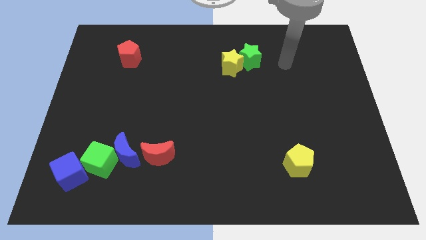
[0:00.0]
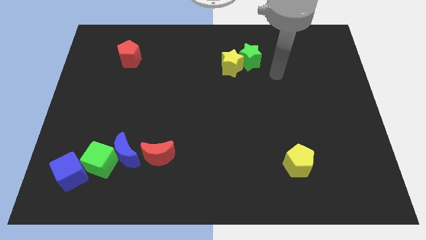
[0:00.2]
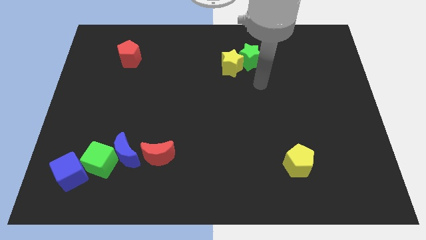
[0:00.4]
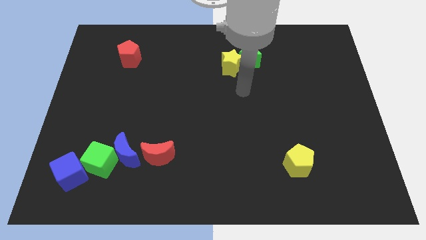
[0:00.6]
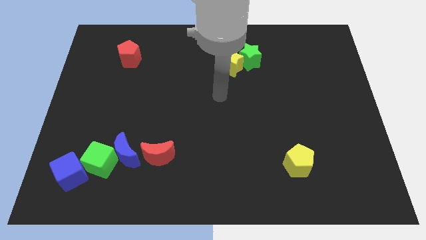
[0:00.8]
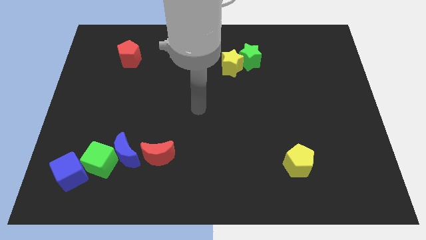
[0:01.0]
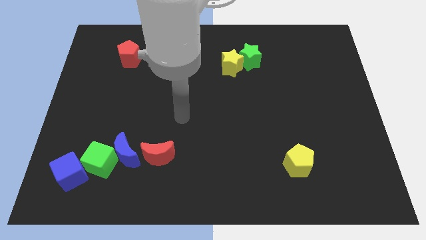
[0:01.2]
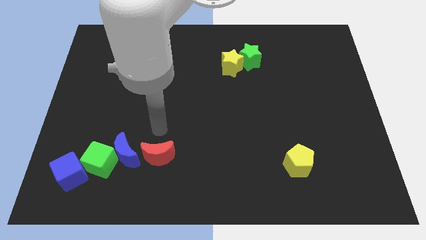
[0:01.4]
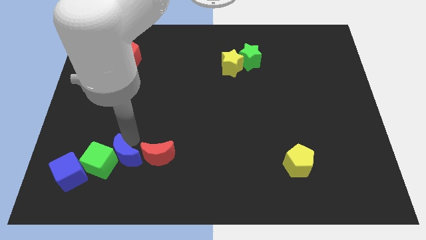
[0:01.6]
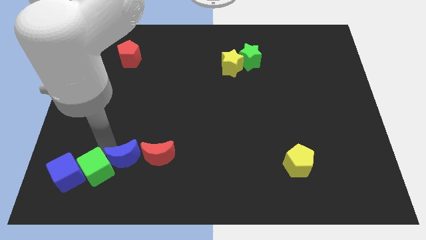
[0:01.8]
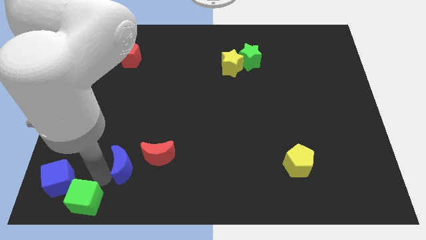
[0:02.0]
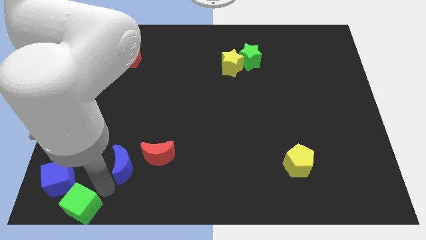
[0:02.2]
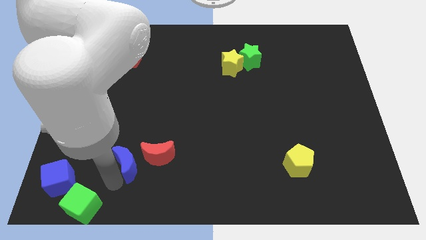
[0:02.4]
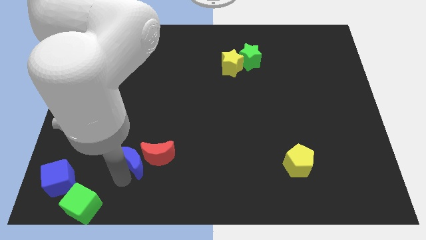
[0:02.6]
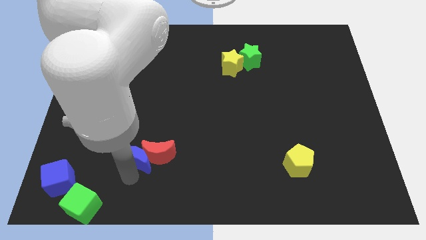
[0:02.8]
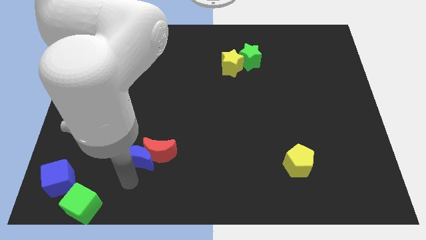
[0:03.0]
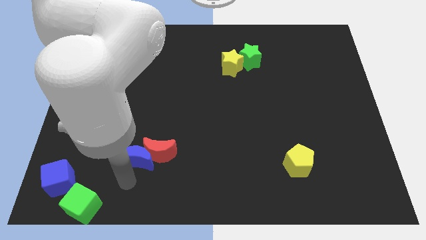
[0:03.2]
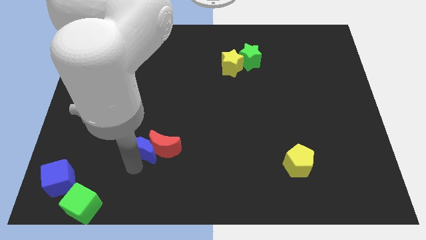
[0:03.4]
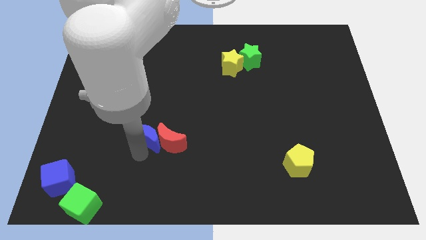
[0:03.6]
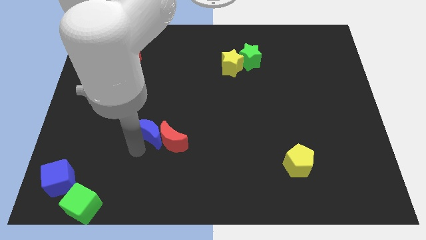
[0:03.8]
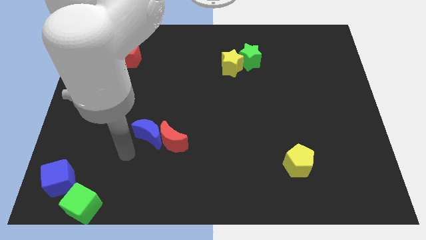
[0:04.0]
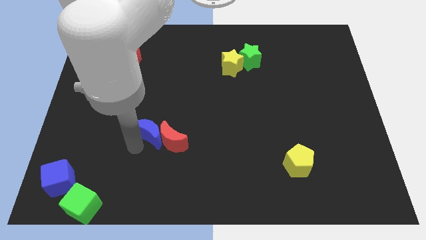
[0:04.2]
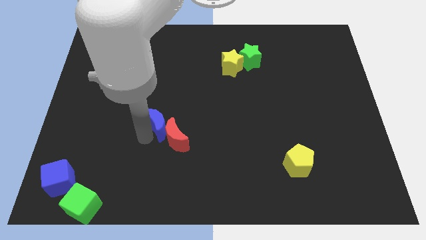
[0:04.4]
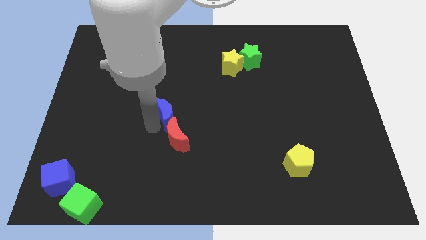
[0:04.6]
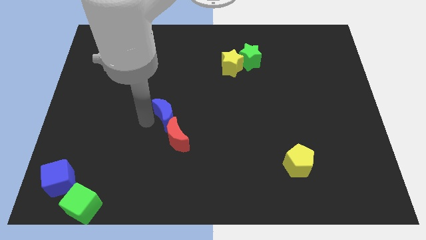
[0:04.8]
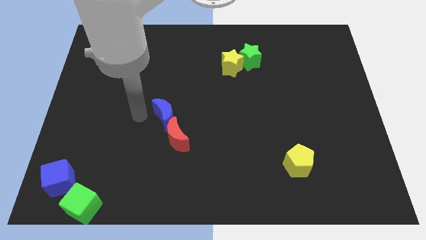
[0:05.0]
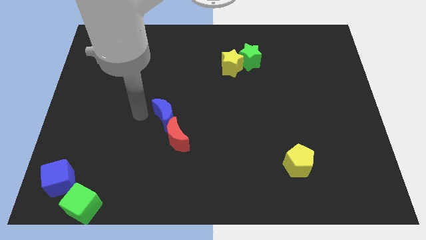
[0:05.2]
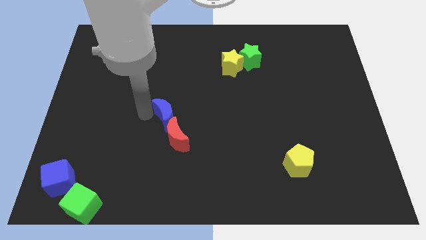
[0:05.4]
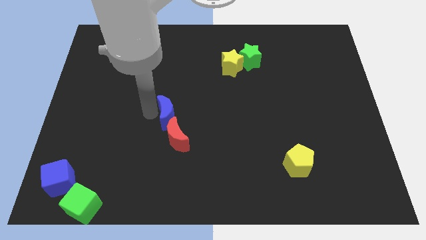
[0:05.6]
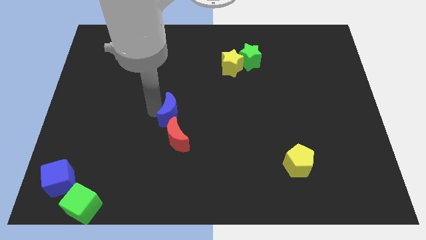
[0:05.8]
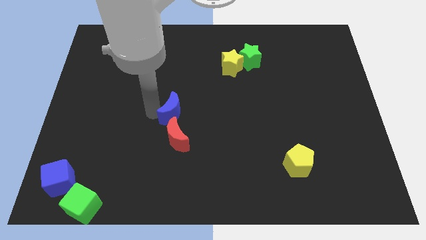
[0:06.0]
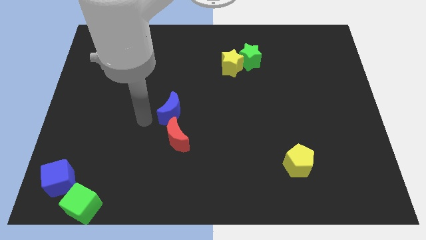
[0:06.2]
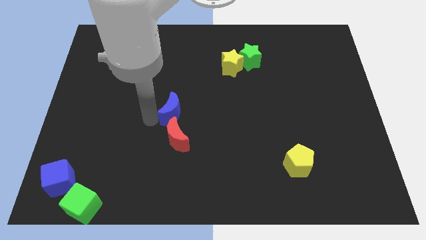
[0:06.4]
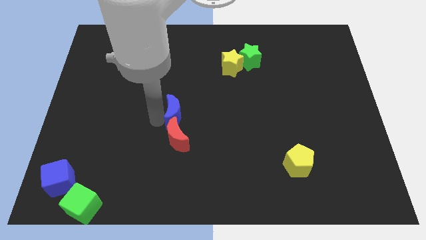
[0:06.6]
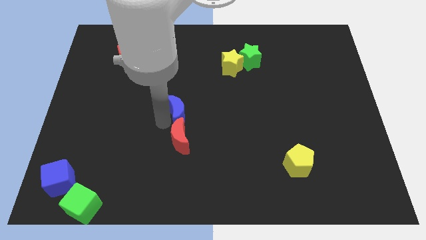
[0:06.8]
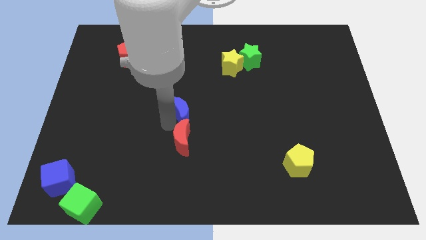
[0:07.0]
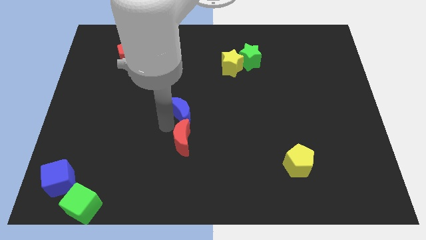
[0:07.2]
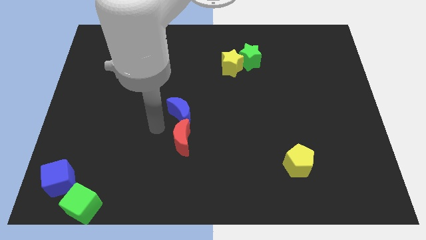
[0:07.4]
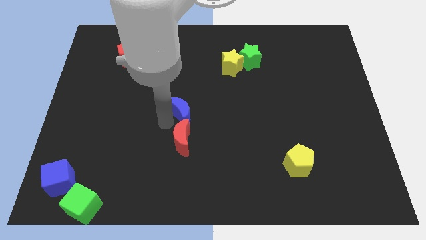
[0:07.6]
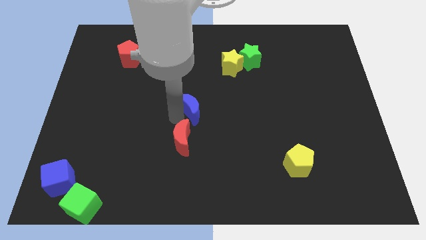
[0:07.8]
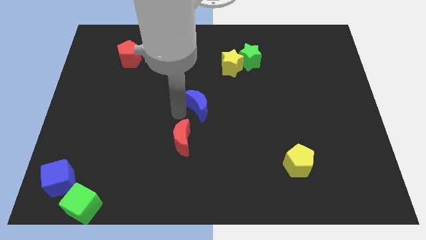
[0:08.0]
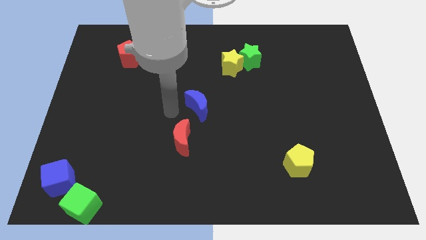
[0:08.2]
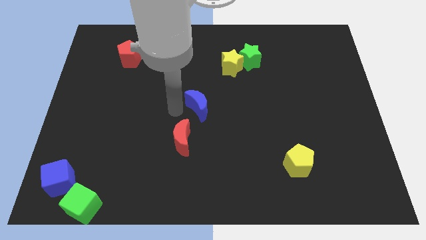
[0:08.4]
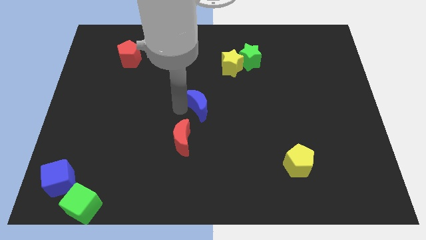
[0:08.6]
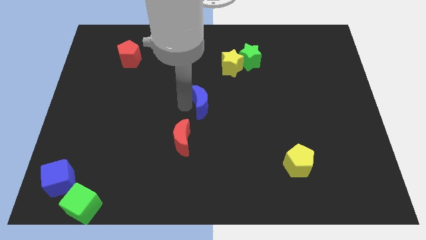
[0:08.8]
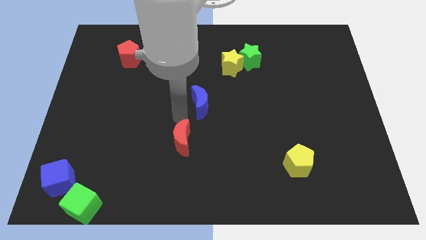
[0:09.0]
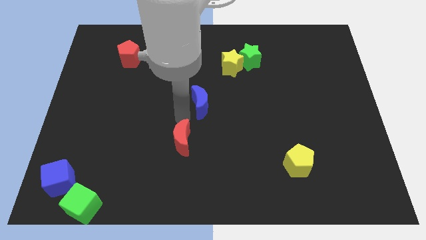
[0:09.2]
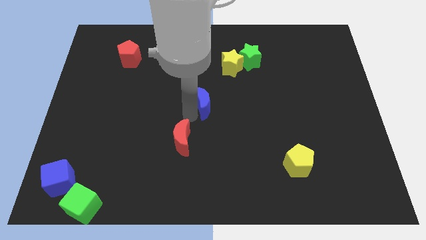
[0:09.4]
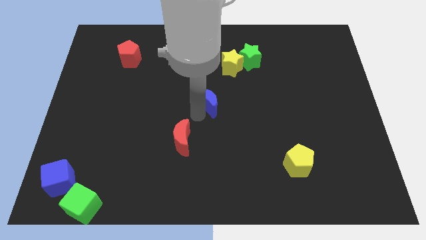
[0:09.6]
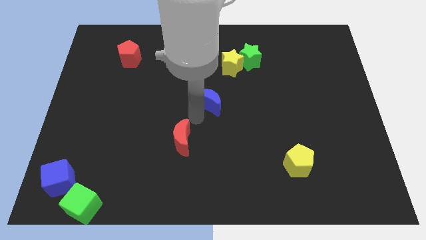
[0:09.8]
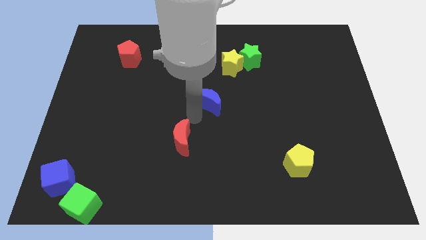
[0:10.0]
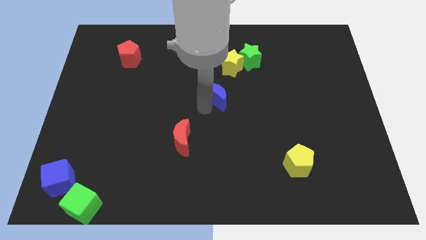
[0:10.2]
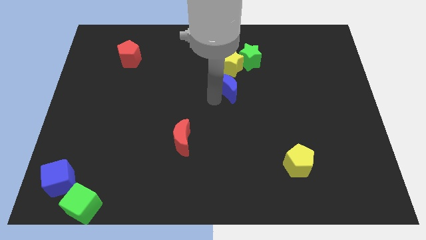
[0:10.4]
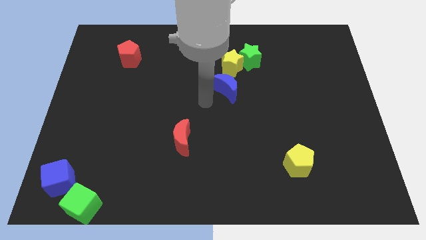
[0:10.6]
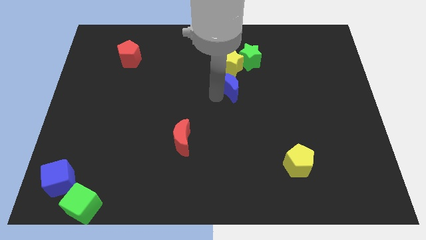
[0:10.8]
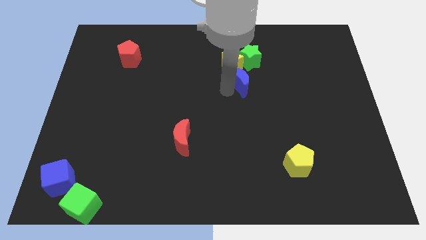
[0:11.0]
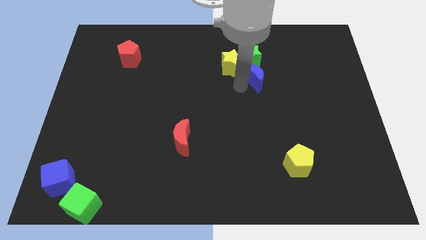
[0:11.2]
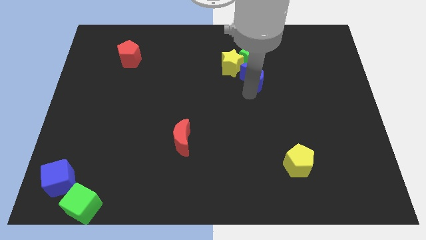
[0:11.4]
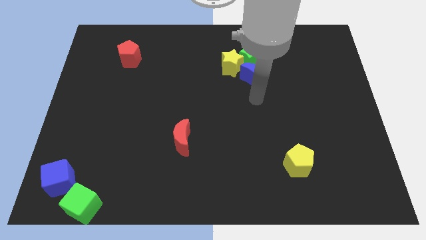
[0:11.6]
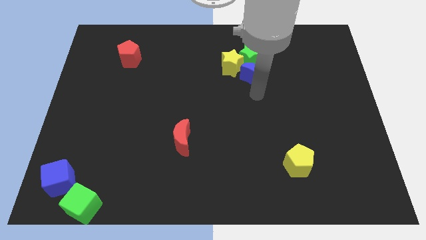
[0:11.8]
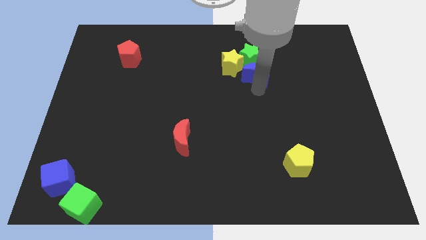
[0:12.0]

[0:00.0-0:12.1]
push the blue moon towards the green star

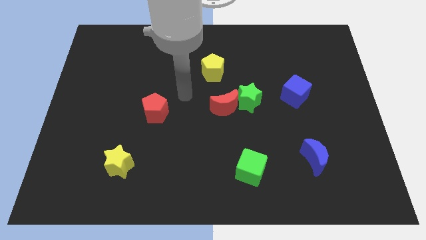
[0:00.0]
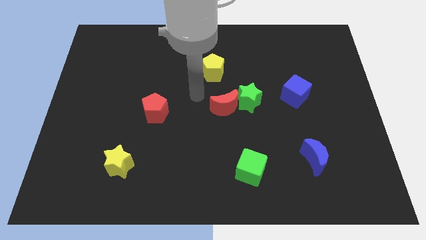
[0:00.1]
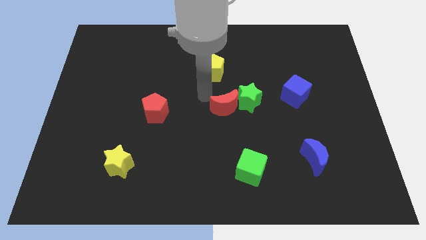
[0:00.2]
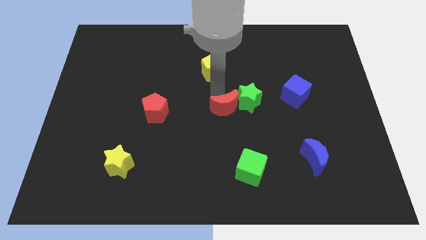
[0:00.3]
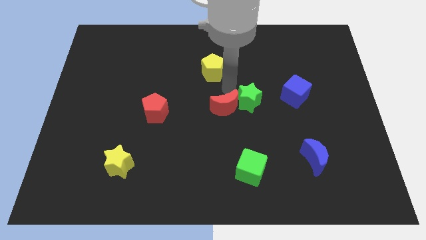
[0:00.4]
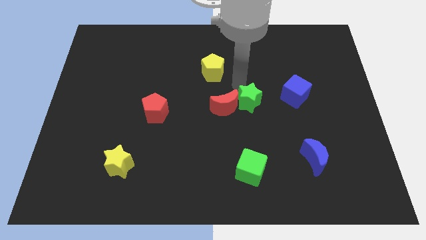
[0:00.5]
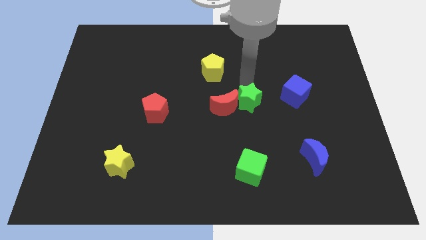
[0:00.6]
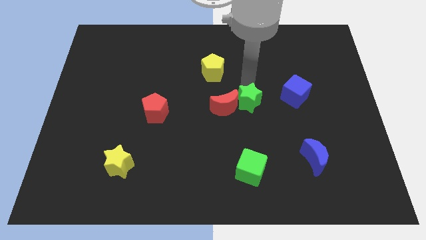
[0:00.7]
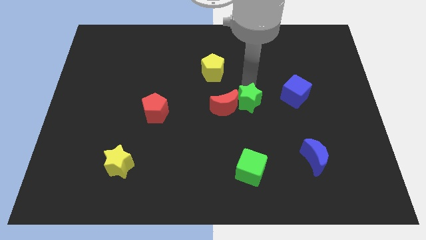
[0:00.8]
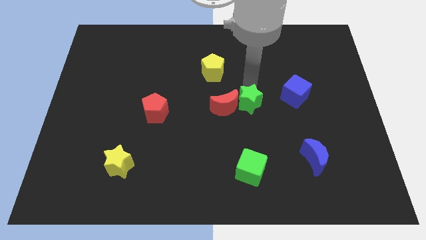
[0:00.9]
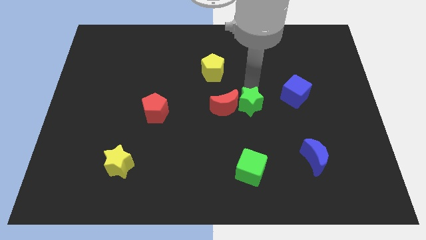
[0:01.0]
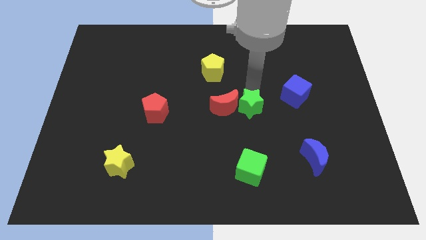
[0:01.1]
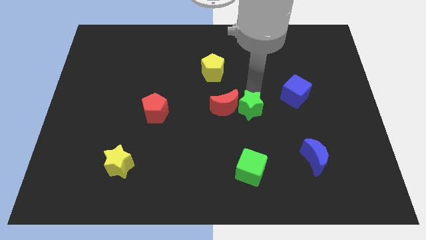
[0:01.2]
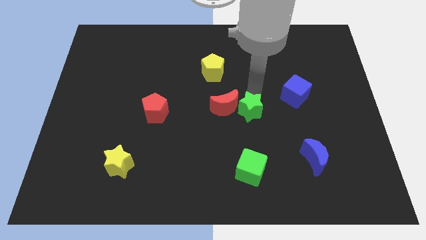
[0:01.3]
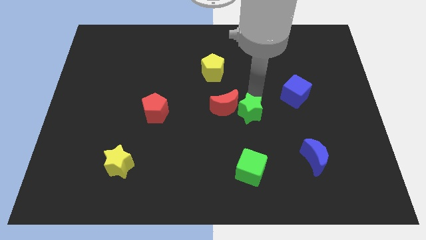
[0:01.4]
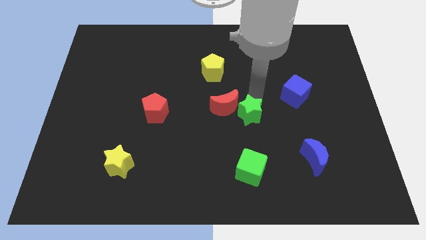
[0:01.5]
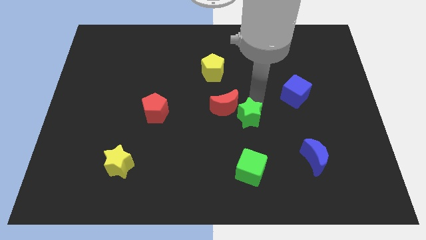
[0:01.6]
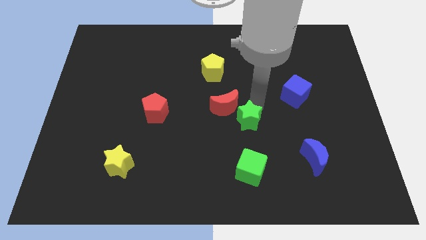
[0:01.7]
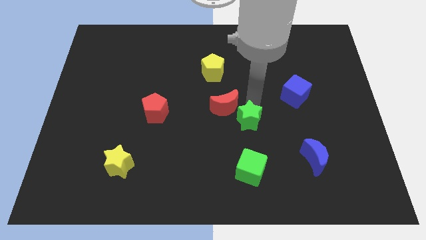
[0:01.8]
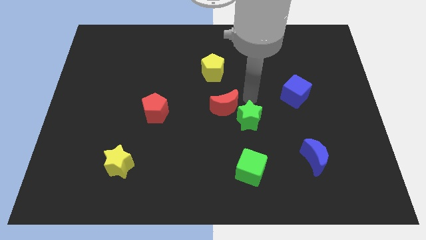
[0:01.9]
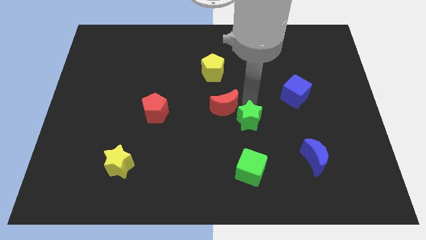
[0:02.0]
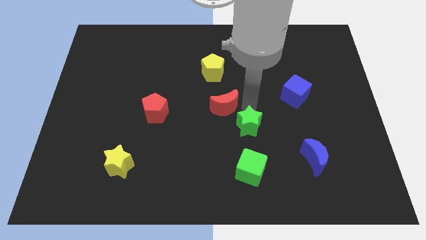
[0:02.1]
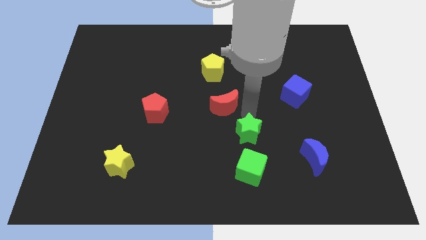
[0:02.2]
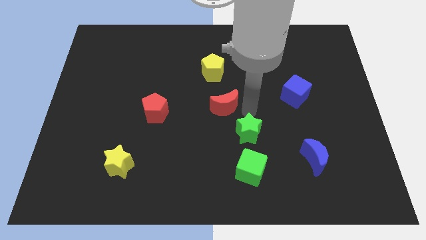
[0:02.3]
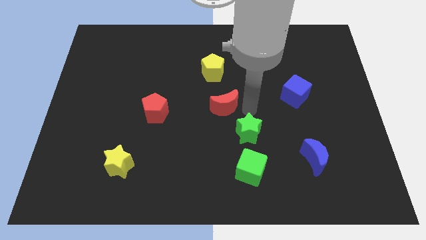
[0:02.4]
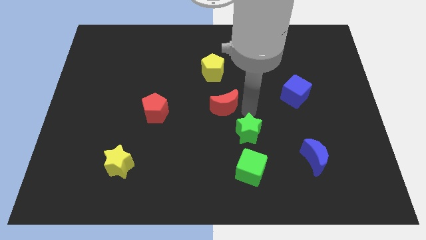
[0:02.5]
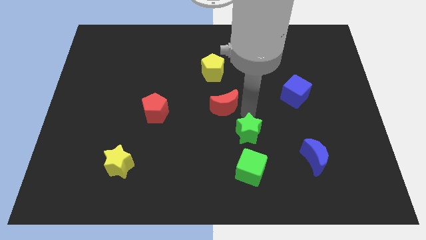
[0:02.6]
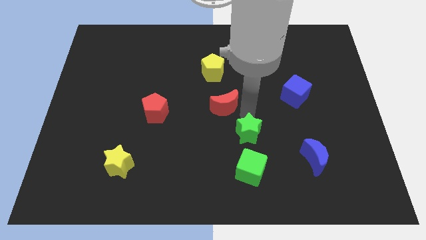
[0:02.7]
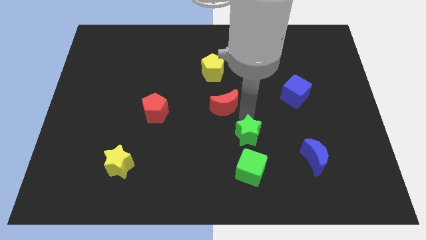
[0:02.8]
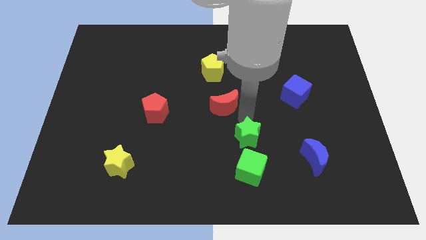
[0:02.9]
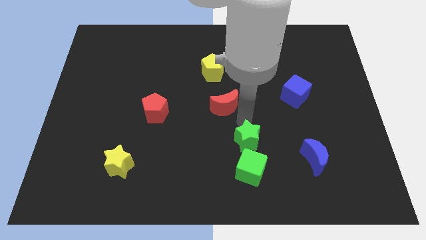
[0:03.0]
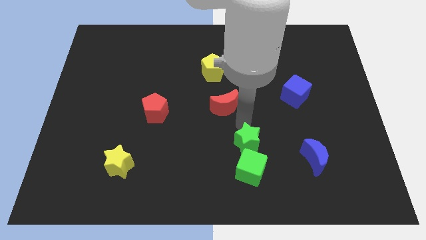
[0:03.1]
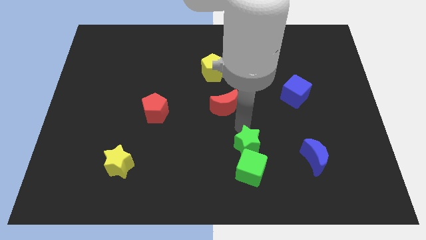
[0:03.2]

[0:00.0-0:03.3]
push the green star to the green cube
